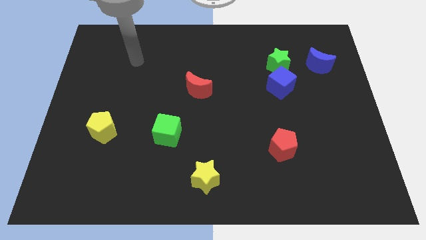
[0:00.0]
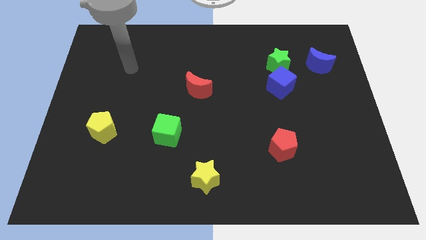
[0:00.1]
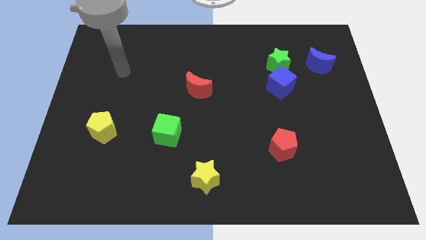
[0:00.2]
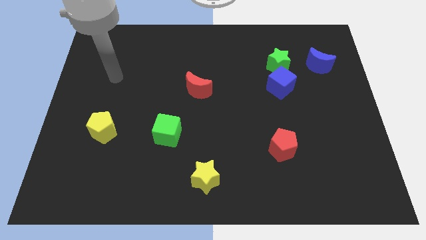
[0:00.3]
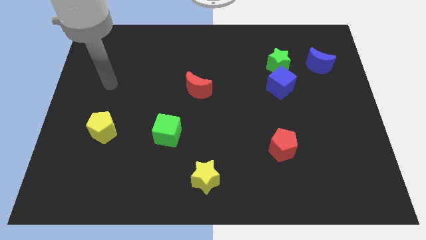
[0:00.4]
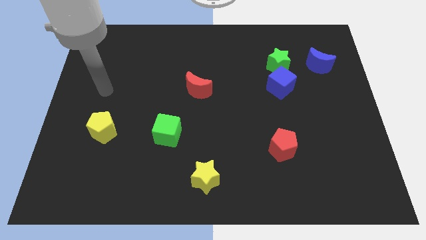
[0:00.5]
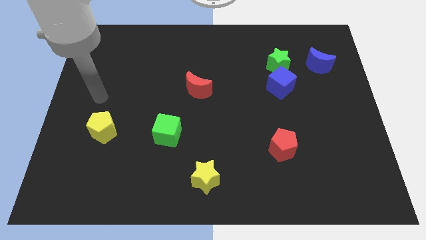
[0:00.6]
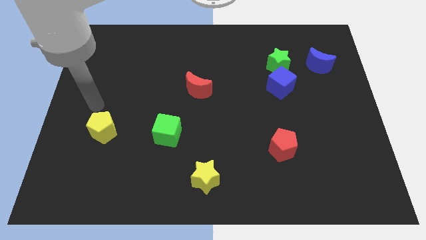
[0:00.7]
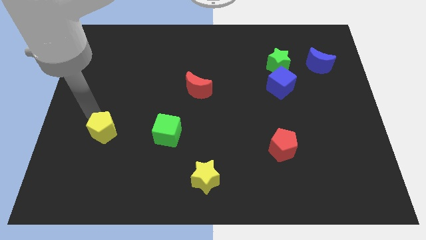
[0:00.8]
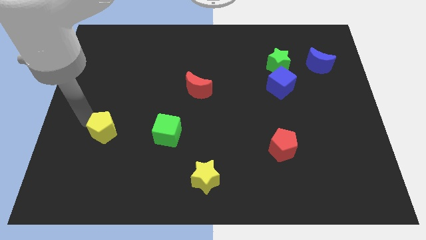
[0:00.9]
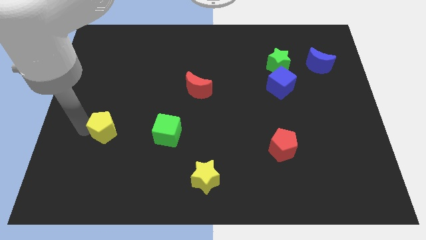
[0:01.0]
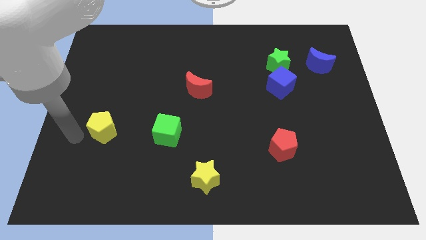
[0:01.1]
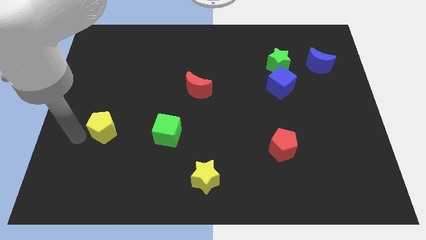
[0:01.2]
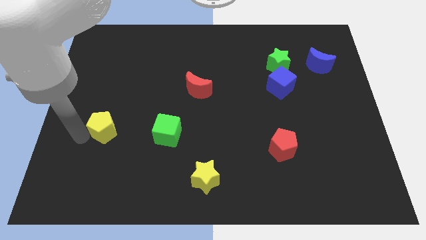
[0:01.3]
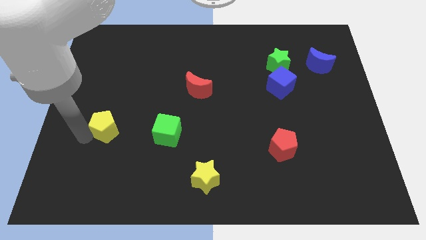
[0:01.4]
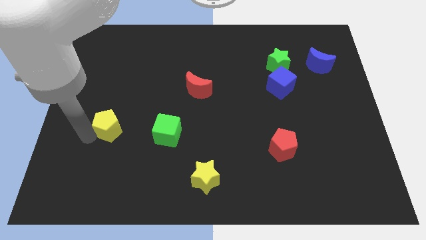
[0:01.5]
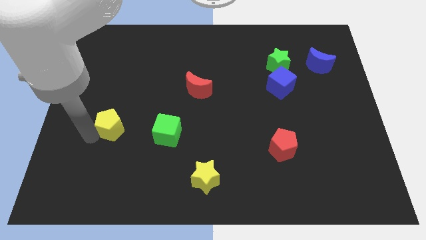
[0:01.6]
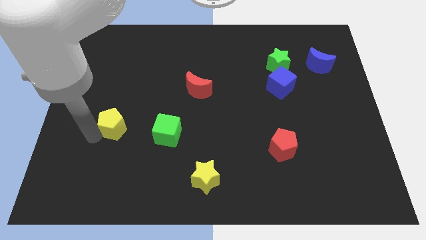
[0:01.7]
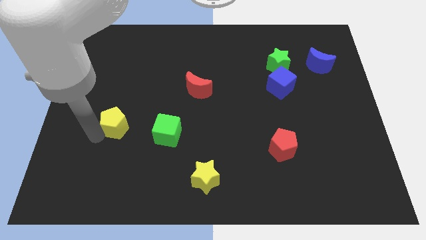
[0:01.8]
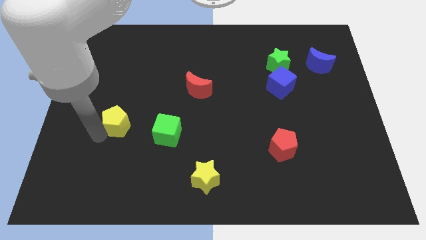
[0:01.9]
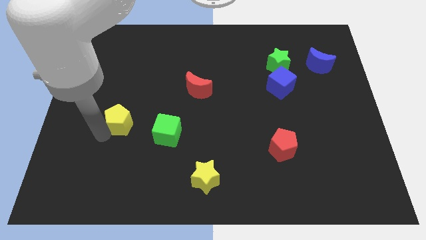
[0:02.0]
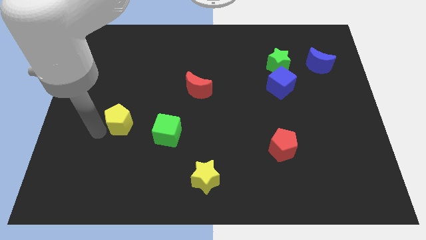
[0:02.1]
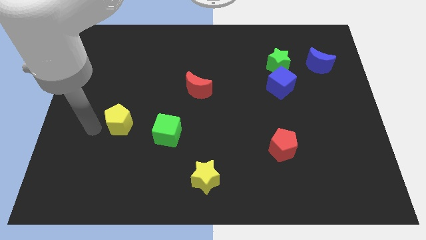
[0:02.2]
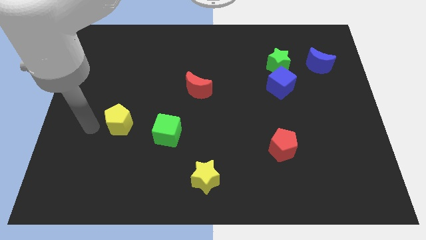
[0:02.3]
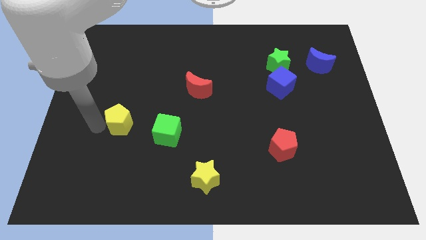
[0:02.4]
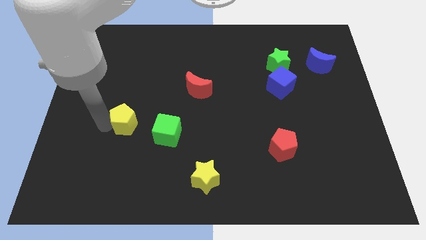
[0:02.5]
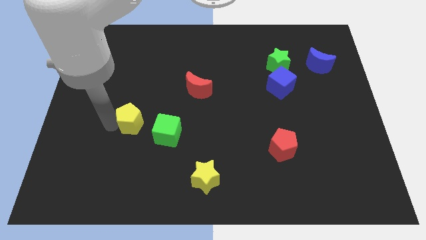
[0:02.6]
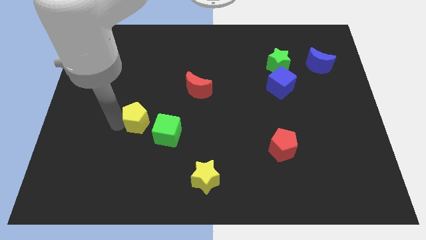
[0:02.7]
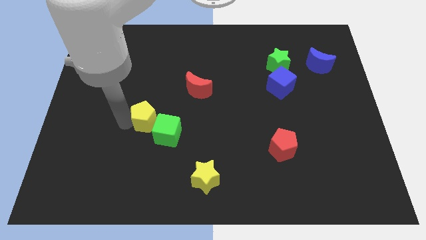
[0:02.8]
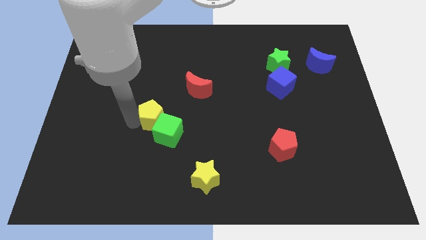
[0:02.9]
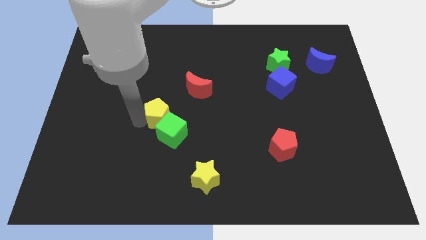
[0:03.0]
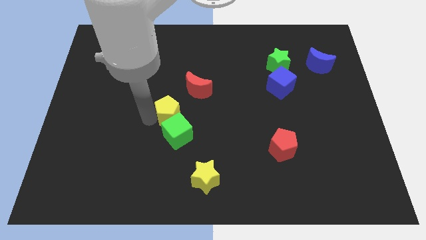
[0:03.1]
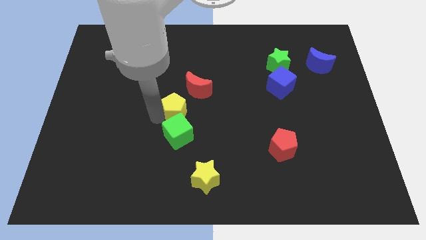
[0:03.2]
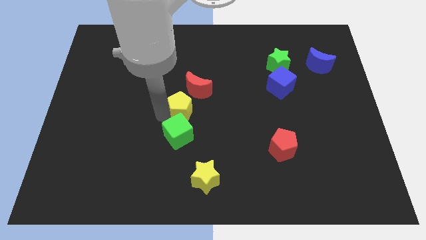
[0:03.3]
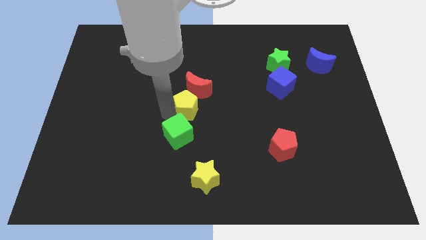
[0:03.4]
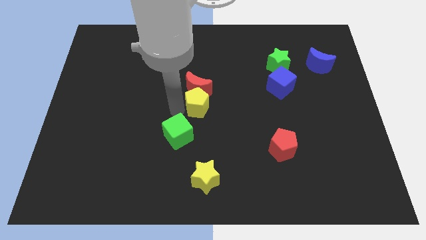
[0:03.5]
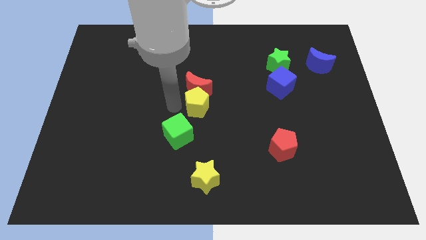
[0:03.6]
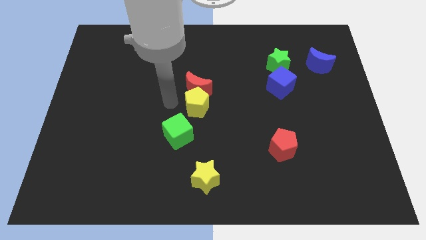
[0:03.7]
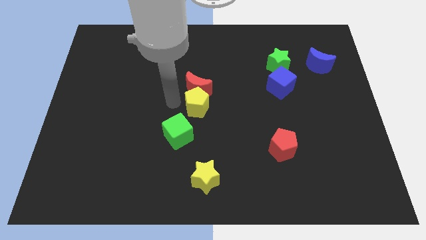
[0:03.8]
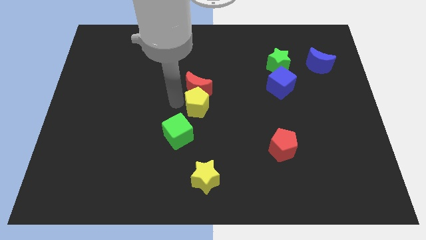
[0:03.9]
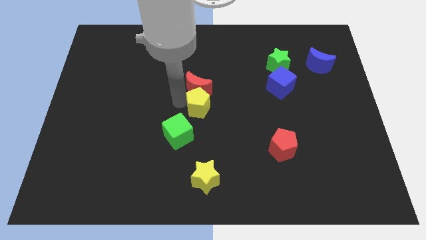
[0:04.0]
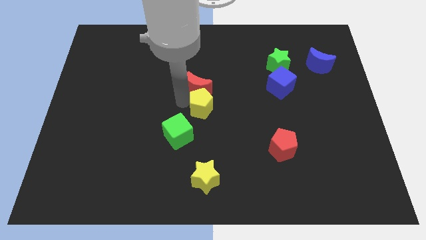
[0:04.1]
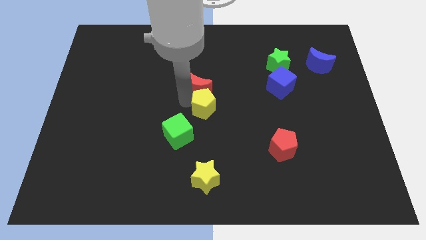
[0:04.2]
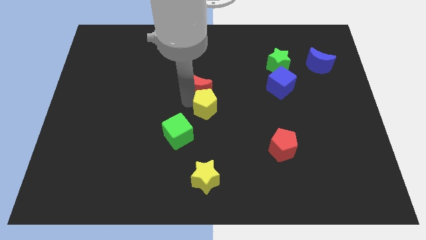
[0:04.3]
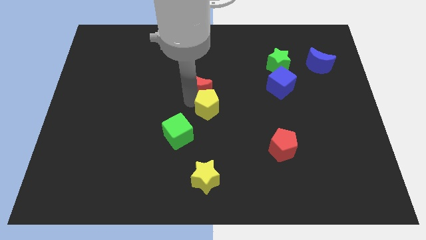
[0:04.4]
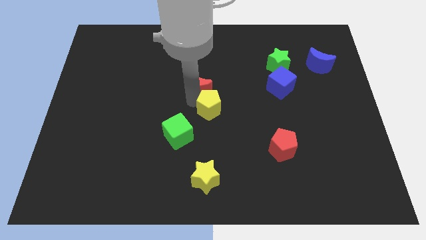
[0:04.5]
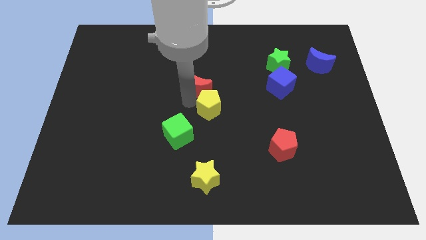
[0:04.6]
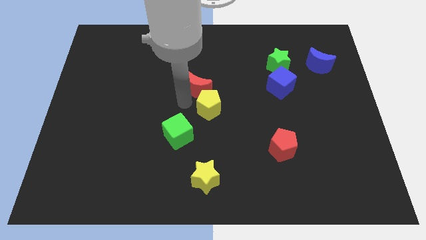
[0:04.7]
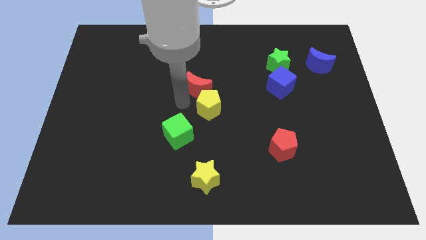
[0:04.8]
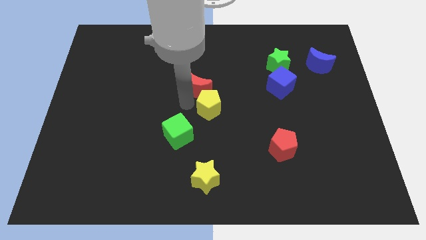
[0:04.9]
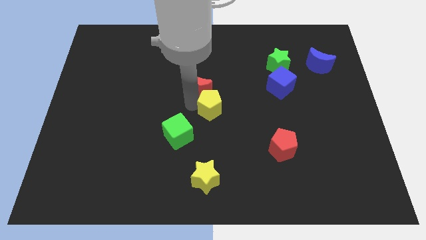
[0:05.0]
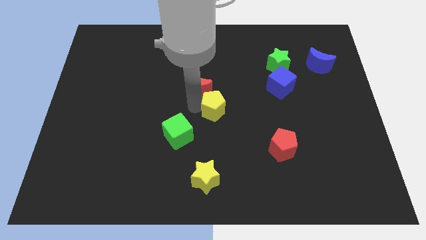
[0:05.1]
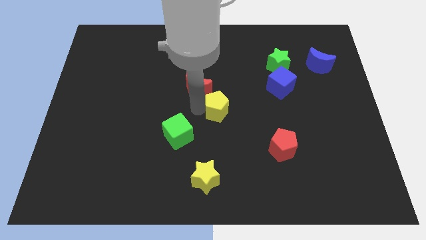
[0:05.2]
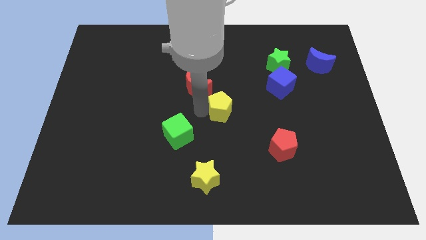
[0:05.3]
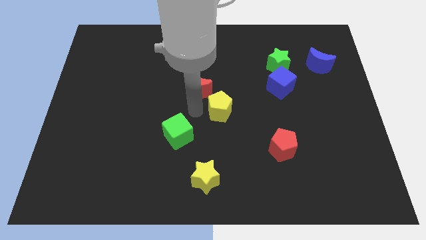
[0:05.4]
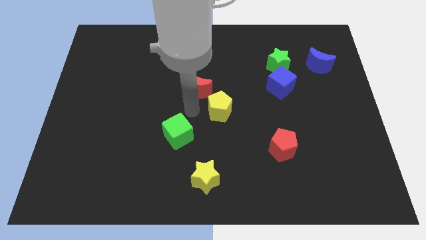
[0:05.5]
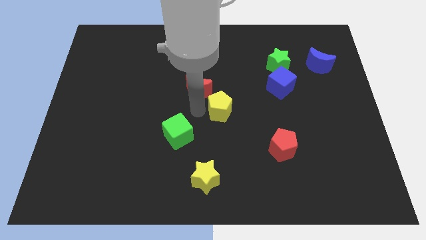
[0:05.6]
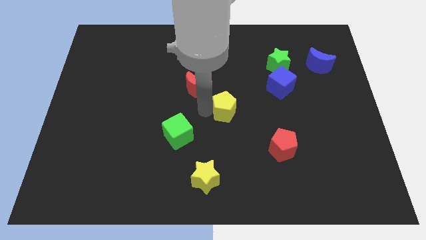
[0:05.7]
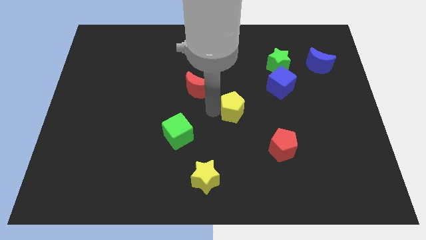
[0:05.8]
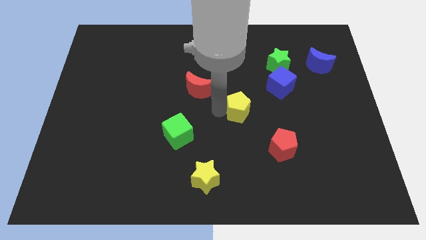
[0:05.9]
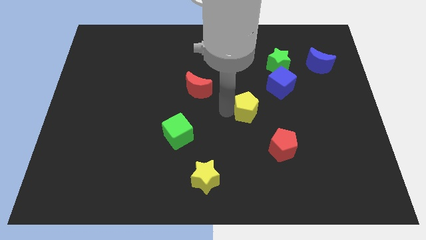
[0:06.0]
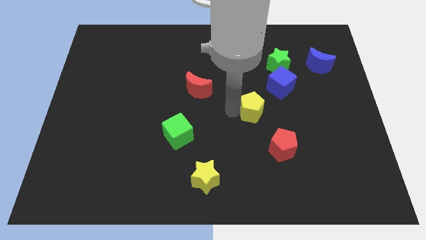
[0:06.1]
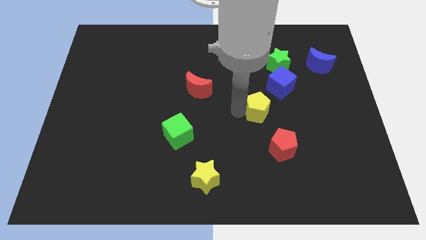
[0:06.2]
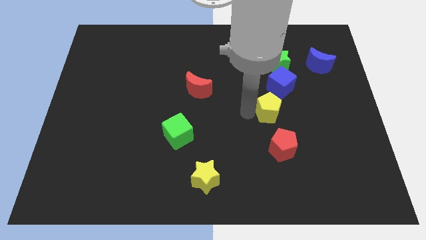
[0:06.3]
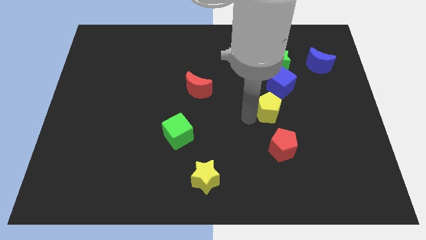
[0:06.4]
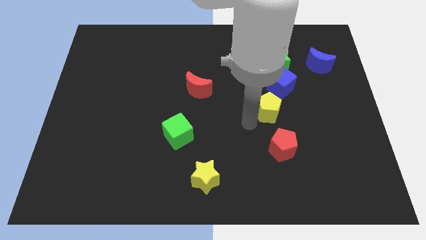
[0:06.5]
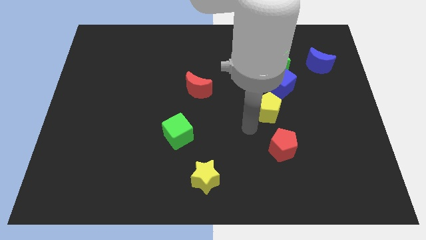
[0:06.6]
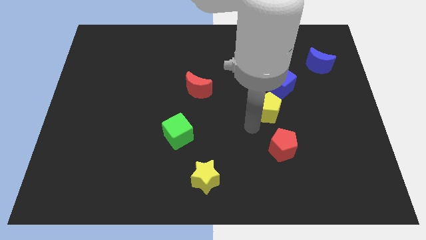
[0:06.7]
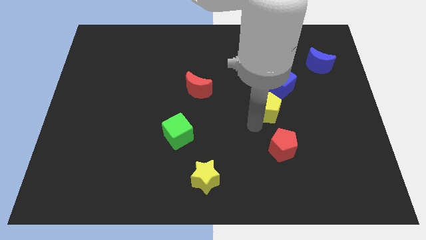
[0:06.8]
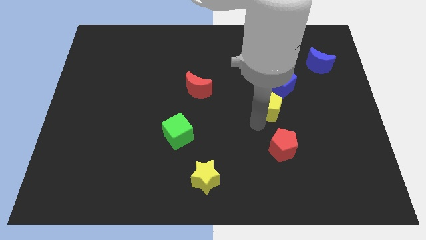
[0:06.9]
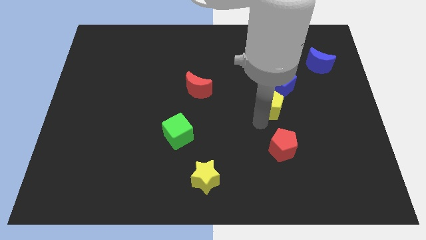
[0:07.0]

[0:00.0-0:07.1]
move the yellow pentagon to the bottom side of the green star

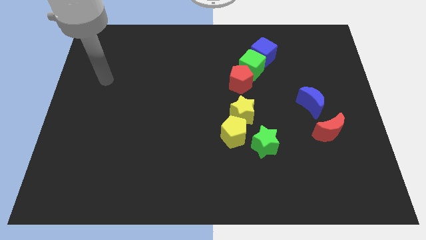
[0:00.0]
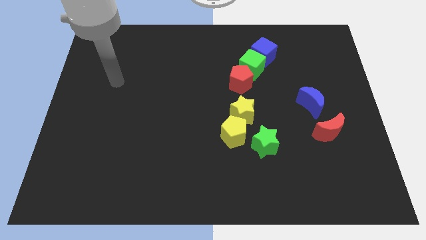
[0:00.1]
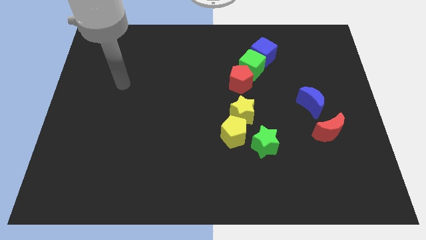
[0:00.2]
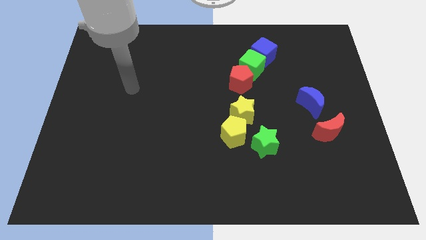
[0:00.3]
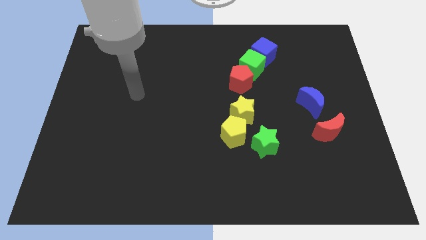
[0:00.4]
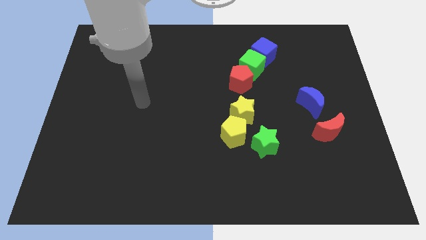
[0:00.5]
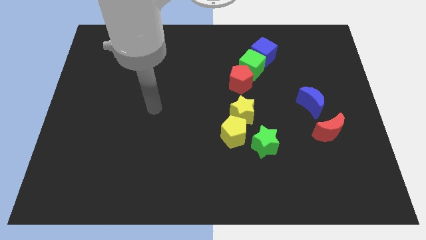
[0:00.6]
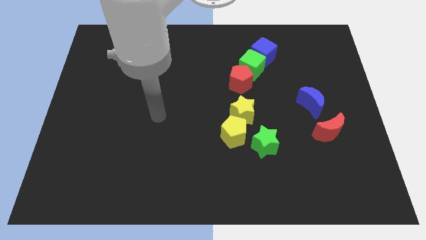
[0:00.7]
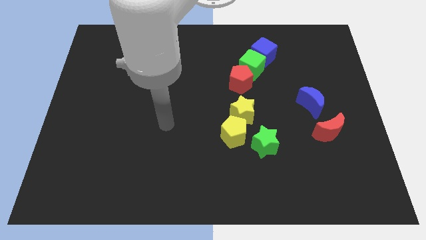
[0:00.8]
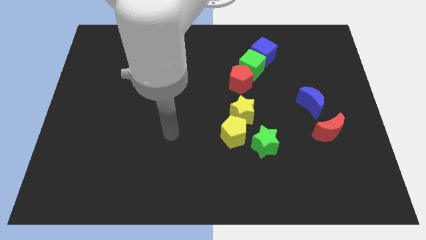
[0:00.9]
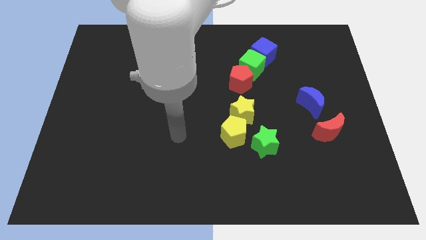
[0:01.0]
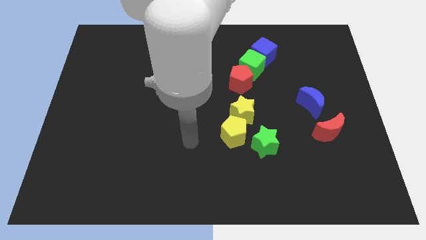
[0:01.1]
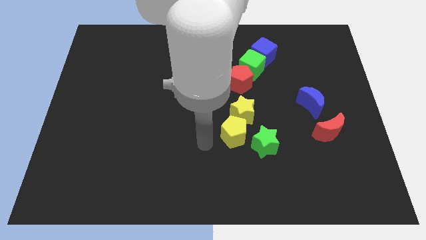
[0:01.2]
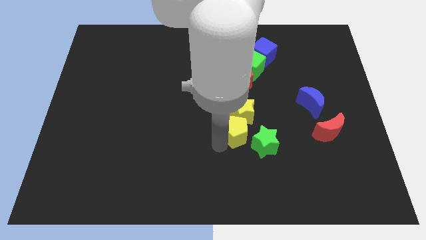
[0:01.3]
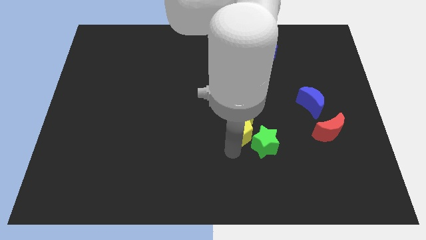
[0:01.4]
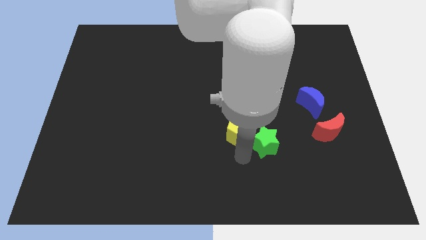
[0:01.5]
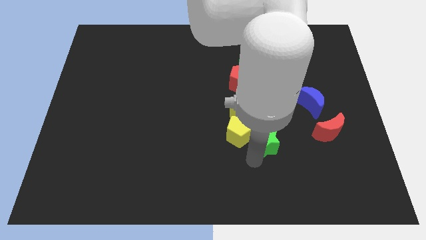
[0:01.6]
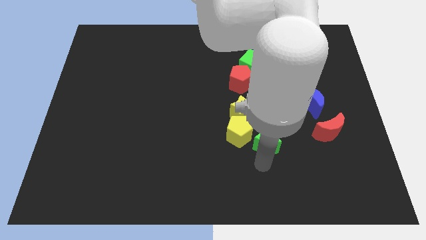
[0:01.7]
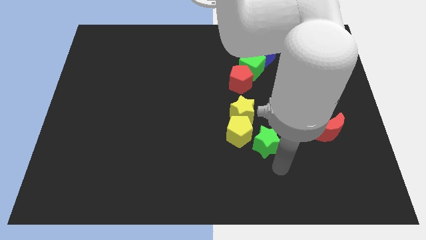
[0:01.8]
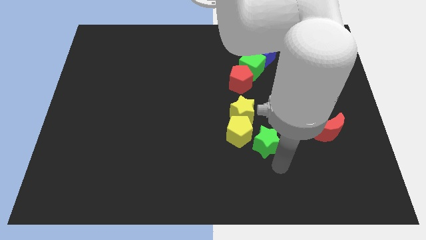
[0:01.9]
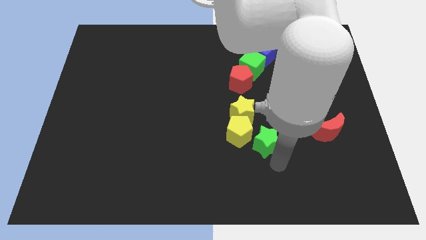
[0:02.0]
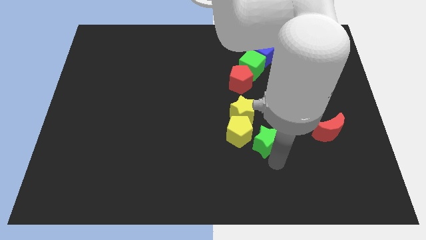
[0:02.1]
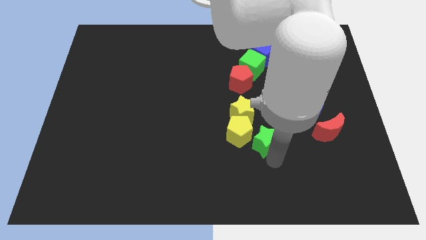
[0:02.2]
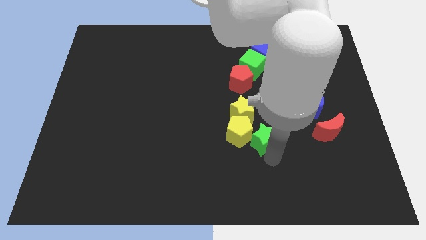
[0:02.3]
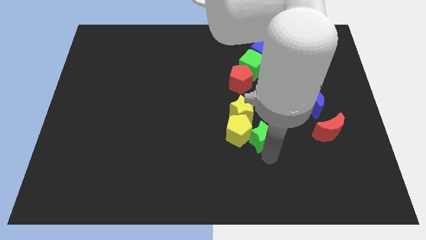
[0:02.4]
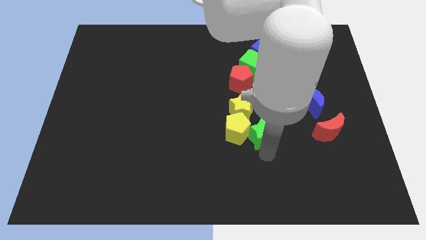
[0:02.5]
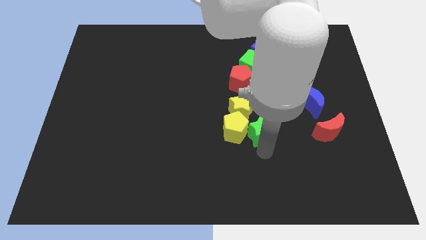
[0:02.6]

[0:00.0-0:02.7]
push the green star to the top right side of the yellow pentagon
